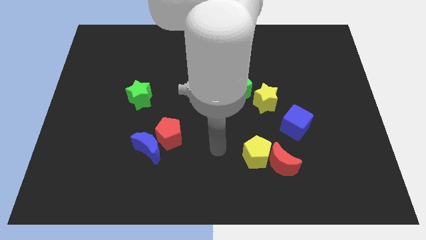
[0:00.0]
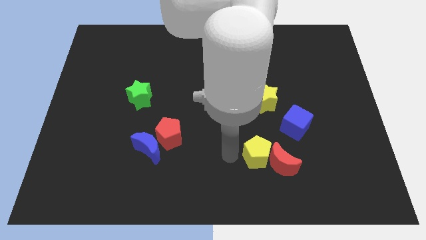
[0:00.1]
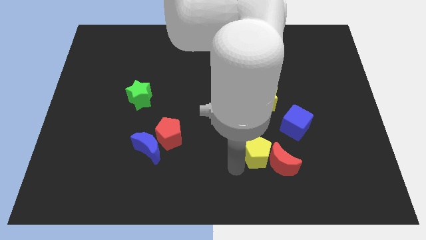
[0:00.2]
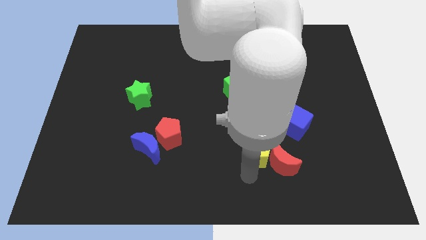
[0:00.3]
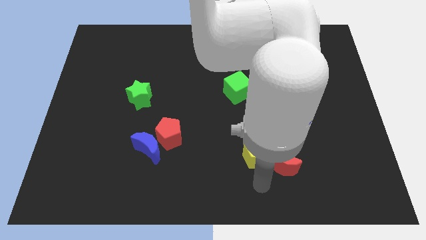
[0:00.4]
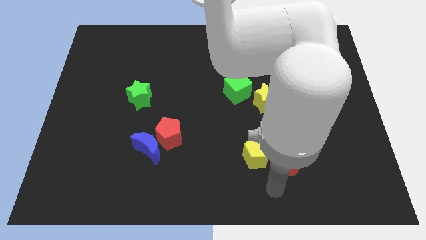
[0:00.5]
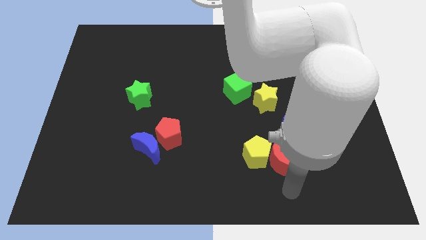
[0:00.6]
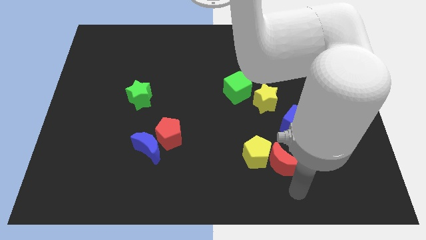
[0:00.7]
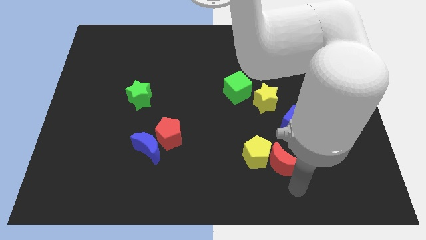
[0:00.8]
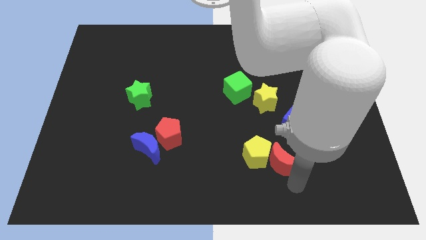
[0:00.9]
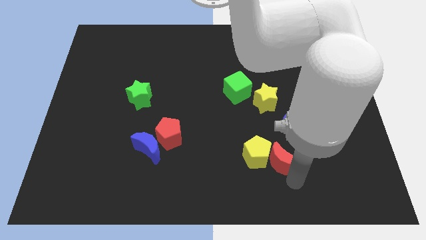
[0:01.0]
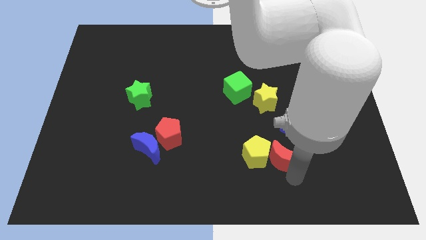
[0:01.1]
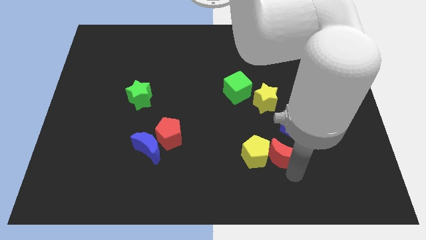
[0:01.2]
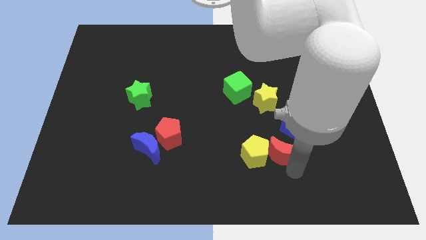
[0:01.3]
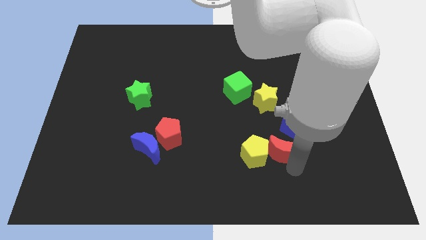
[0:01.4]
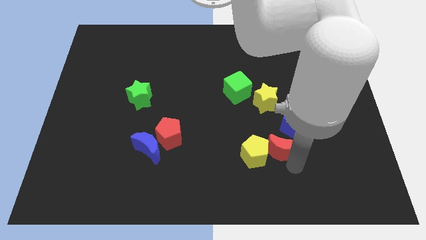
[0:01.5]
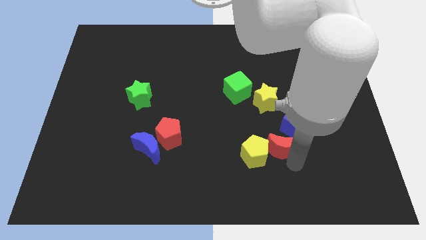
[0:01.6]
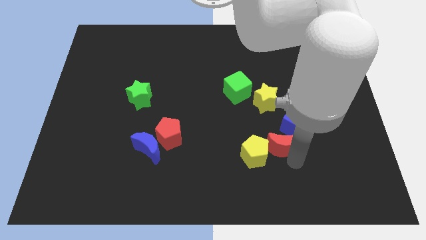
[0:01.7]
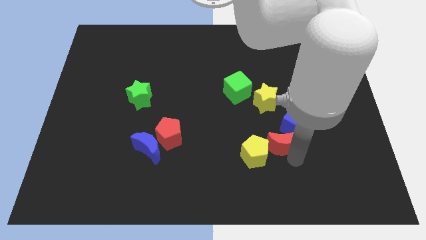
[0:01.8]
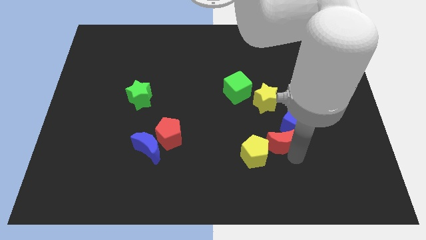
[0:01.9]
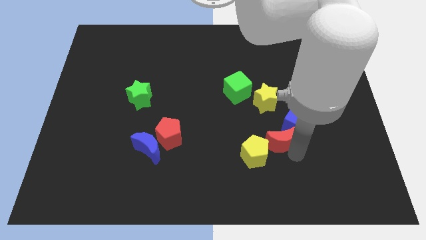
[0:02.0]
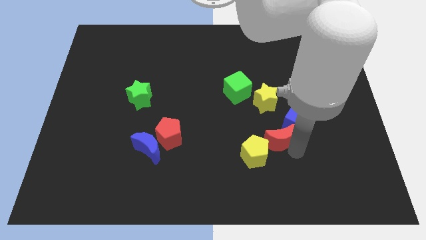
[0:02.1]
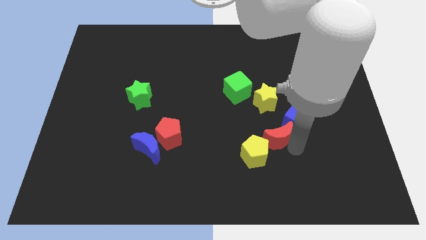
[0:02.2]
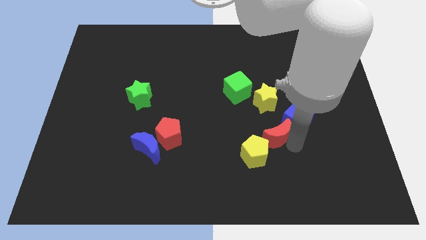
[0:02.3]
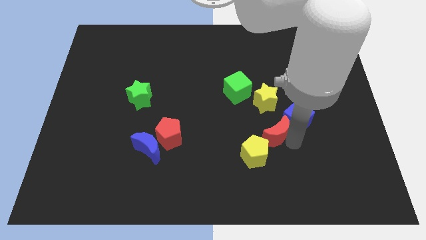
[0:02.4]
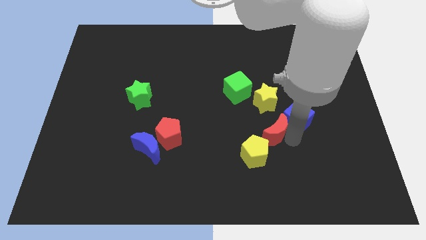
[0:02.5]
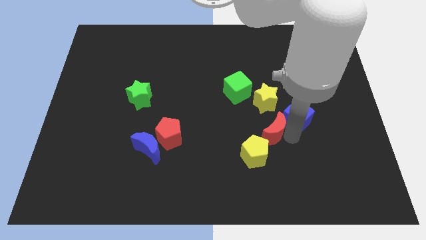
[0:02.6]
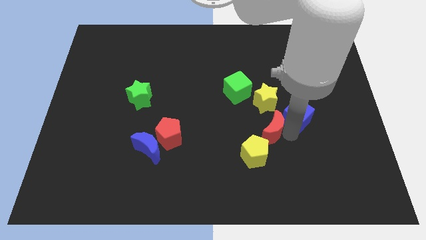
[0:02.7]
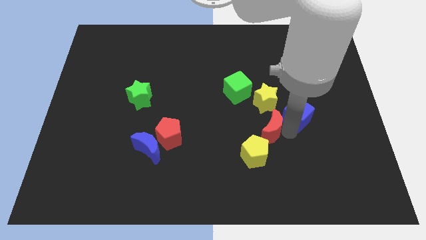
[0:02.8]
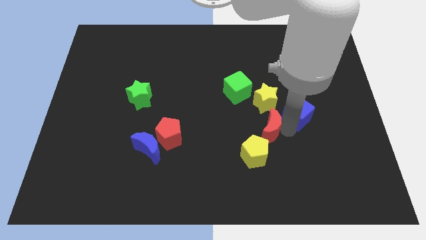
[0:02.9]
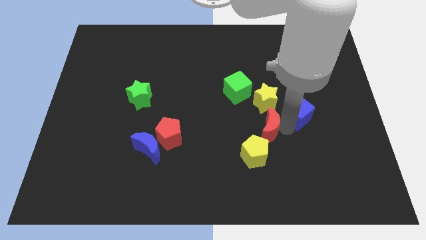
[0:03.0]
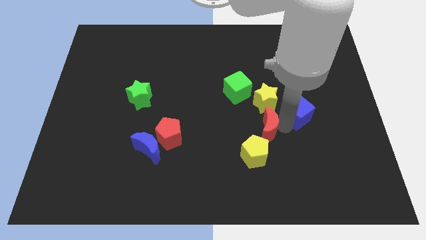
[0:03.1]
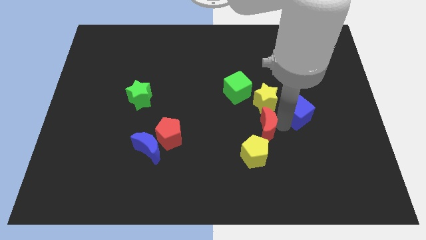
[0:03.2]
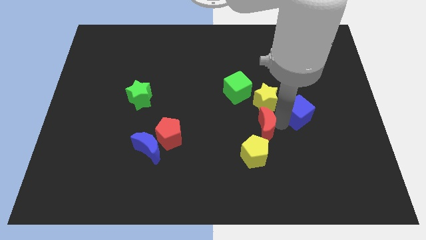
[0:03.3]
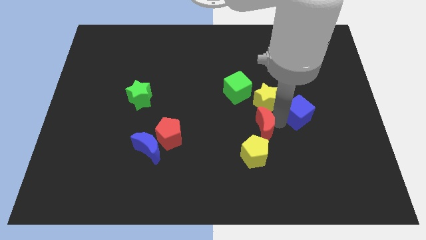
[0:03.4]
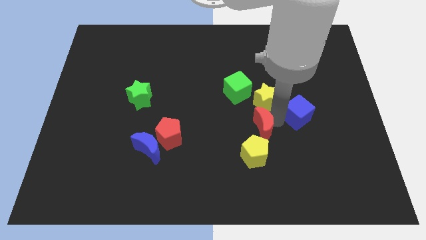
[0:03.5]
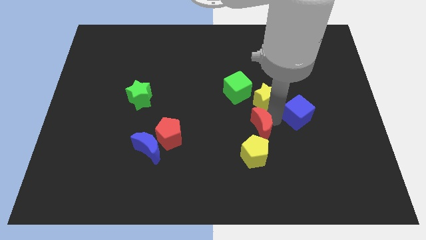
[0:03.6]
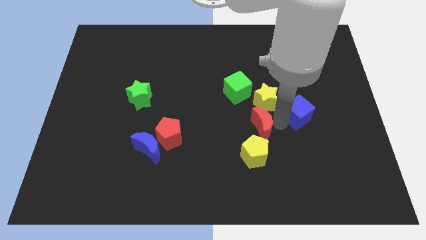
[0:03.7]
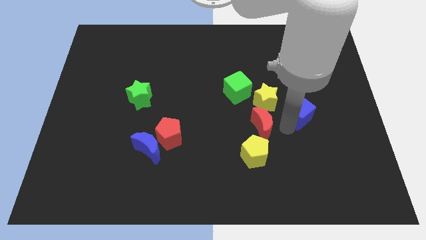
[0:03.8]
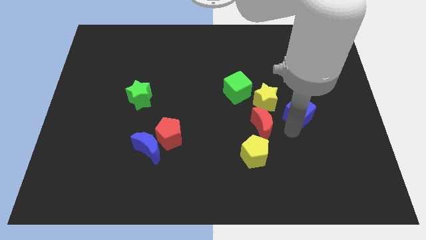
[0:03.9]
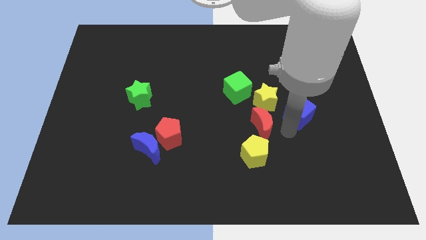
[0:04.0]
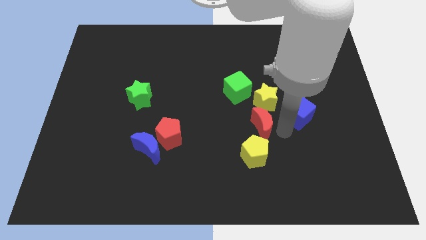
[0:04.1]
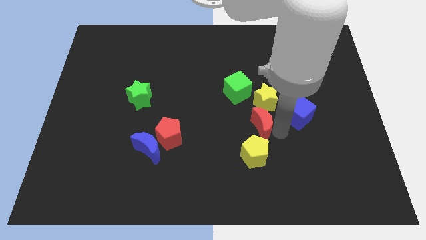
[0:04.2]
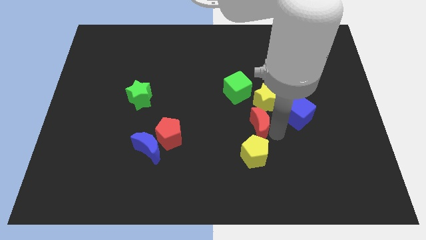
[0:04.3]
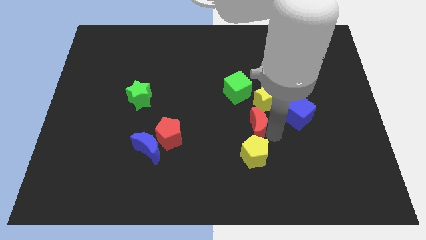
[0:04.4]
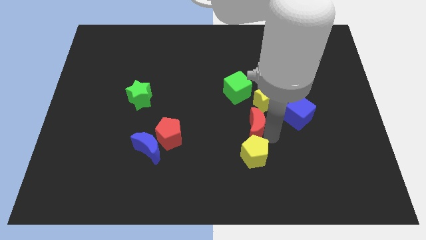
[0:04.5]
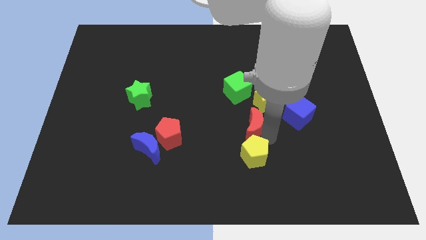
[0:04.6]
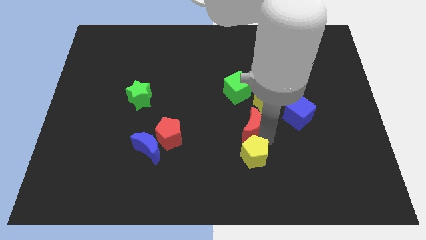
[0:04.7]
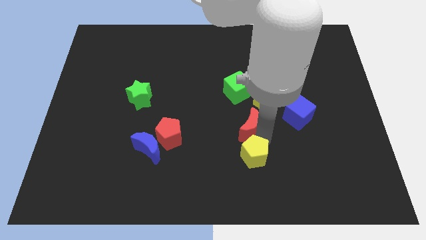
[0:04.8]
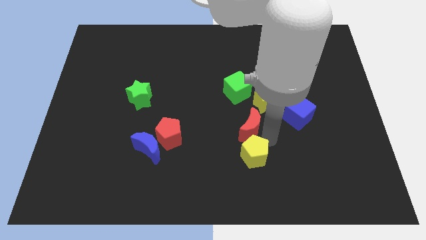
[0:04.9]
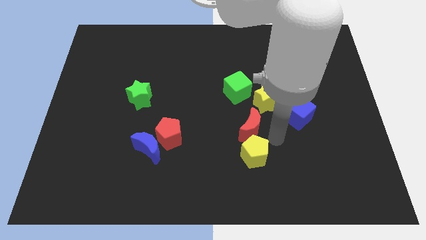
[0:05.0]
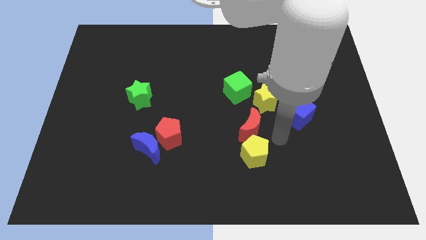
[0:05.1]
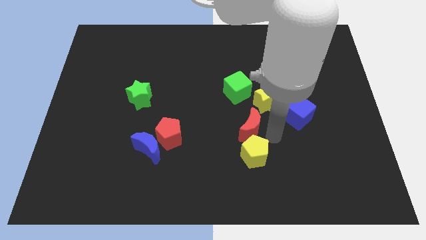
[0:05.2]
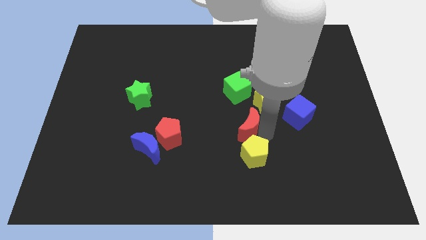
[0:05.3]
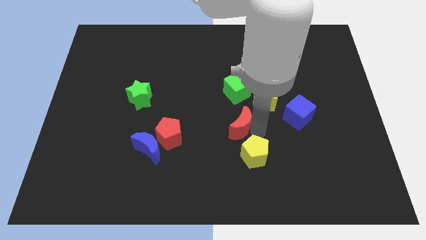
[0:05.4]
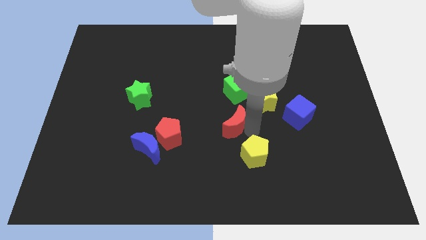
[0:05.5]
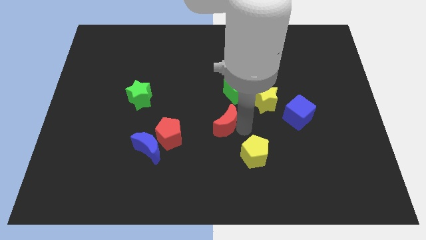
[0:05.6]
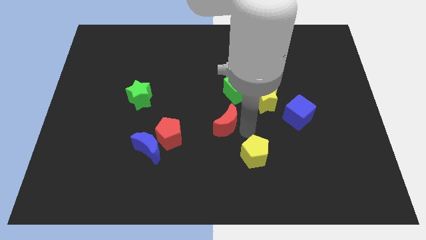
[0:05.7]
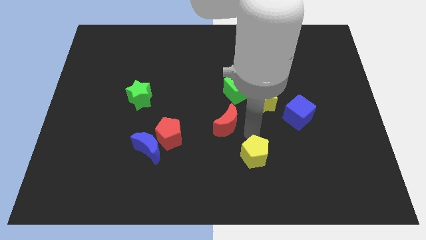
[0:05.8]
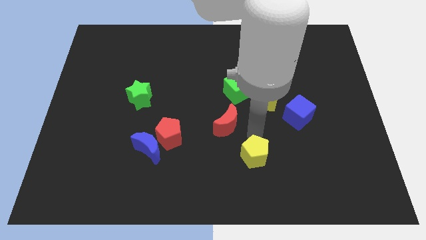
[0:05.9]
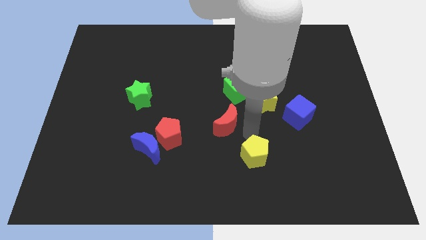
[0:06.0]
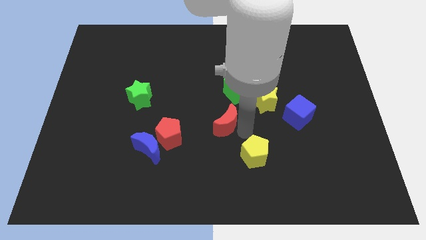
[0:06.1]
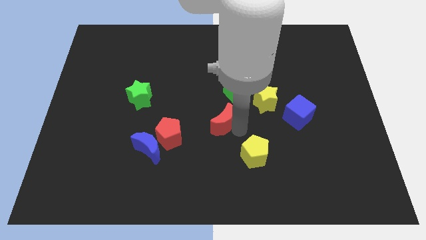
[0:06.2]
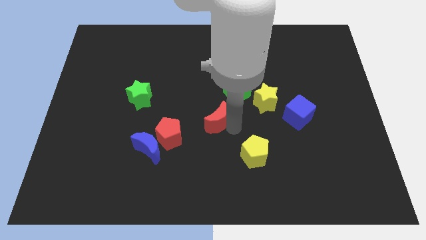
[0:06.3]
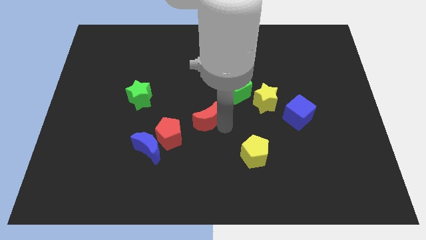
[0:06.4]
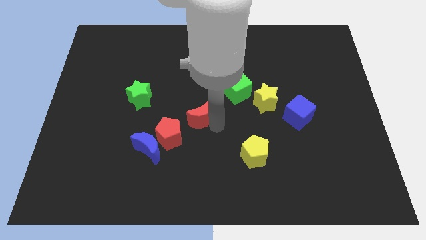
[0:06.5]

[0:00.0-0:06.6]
slide the red moon up and left diagonally

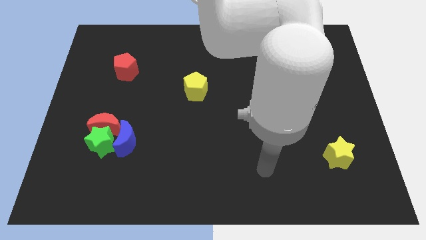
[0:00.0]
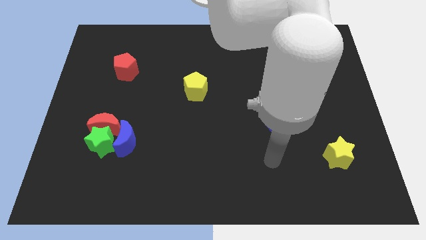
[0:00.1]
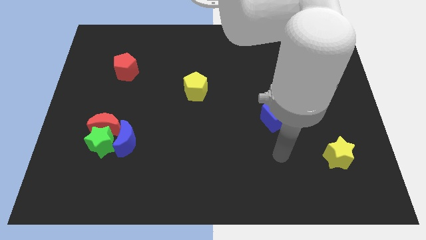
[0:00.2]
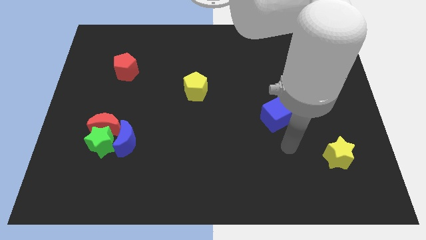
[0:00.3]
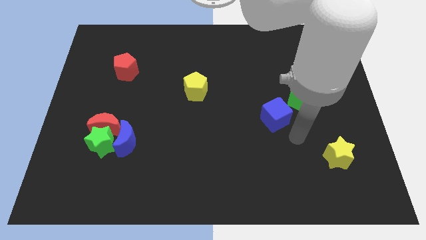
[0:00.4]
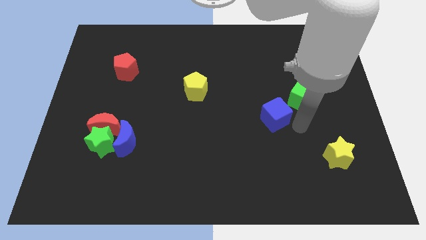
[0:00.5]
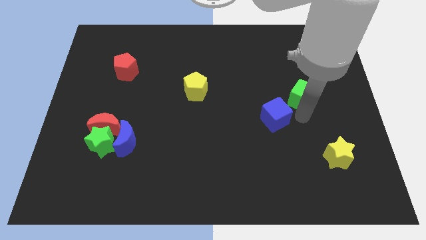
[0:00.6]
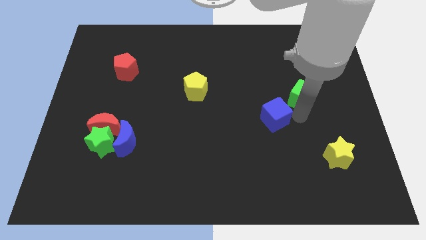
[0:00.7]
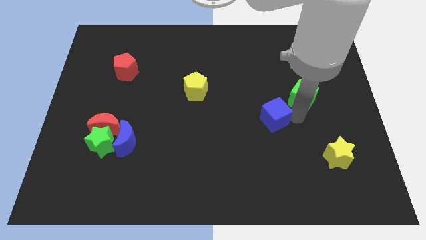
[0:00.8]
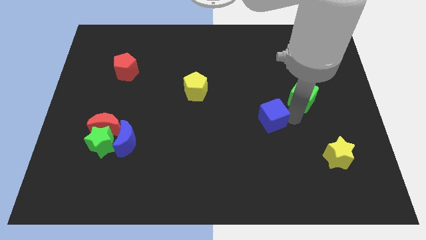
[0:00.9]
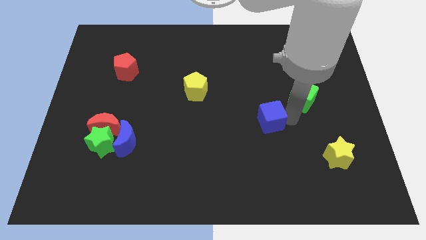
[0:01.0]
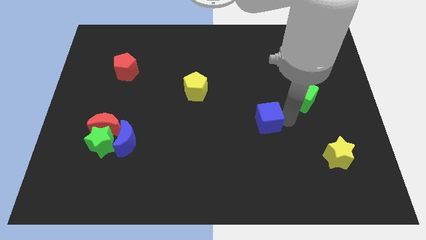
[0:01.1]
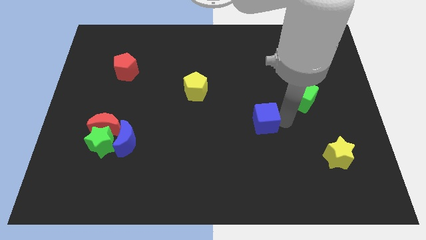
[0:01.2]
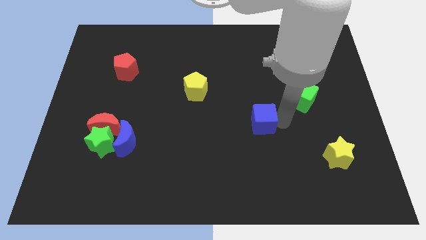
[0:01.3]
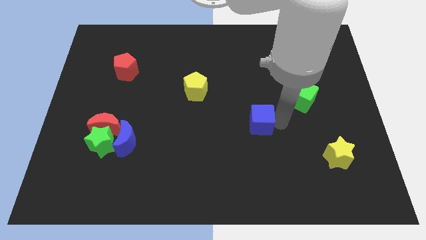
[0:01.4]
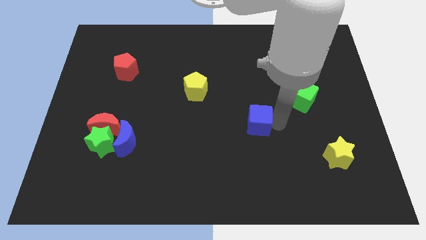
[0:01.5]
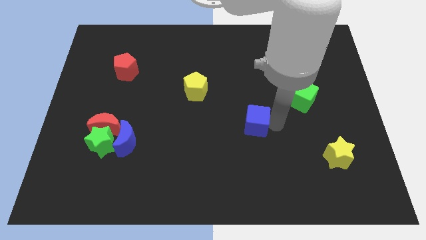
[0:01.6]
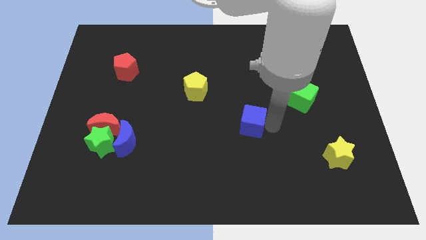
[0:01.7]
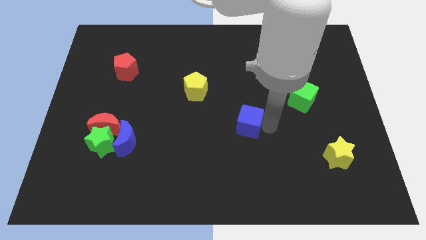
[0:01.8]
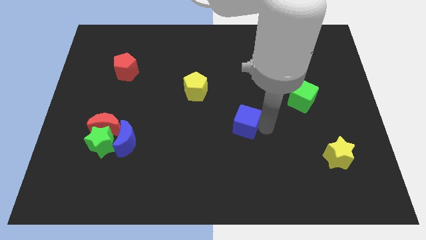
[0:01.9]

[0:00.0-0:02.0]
slide the blue cube slightly to the left
